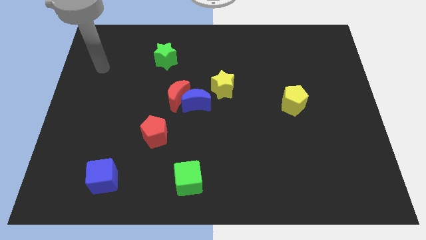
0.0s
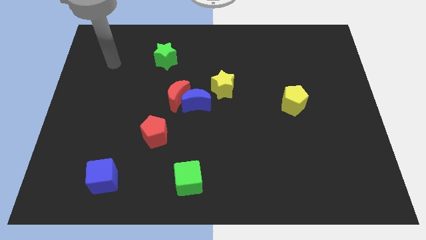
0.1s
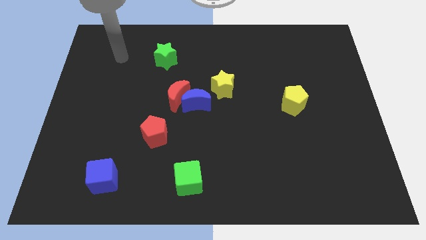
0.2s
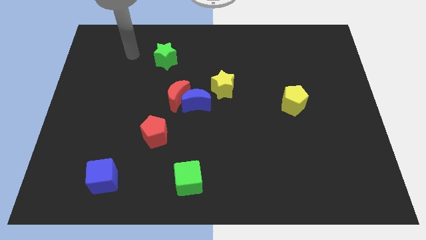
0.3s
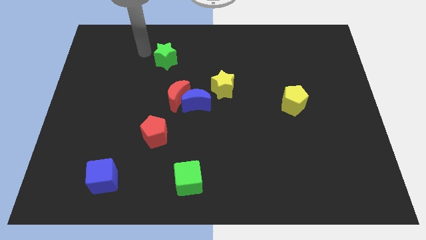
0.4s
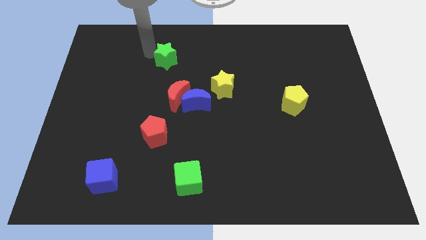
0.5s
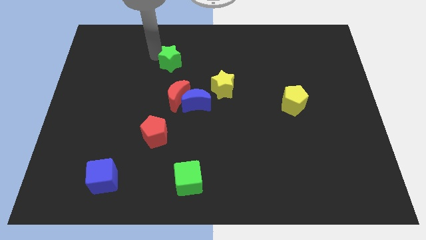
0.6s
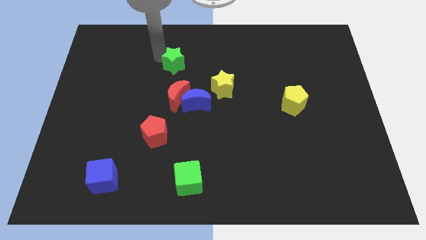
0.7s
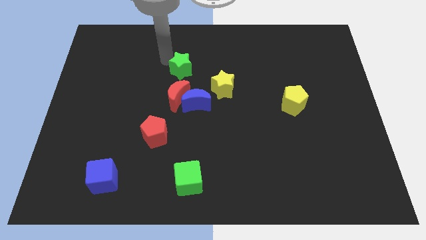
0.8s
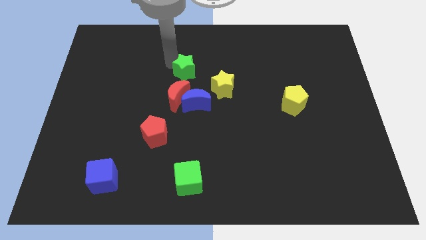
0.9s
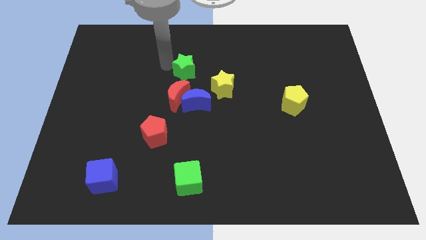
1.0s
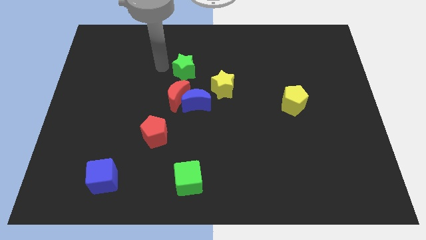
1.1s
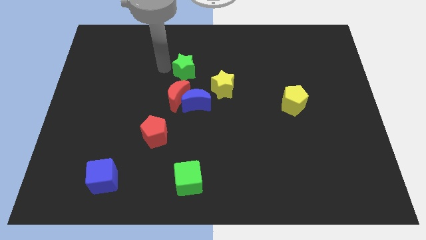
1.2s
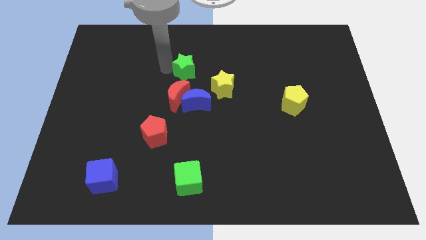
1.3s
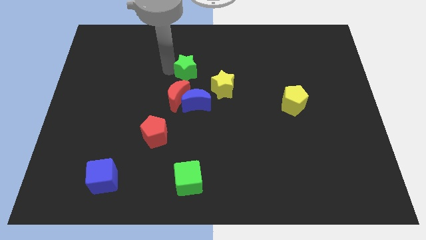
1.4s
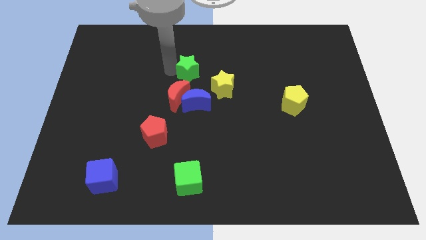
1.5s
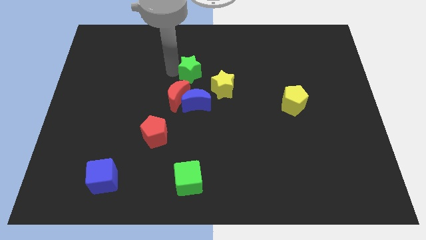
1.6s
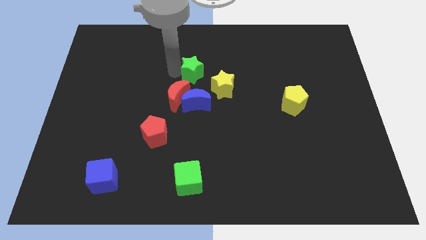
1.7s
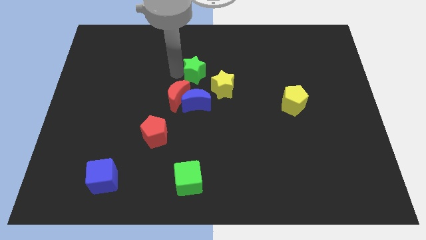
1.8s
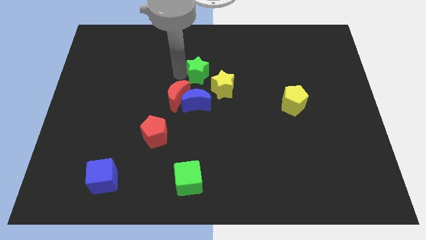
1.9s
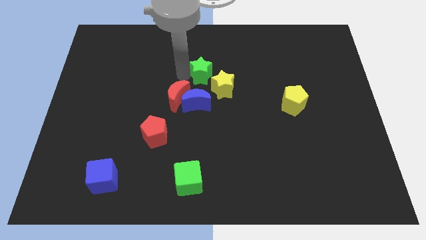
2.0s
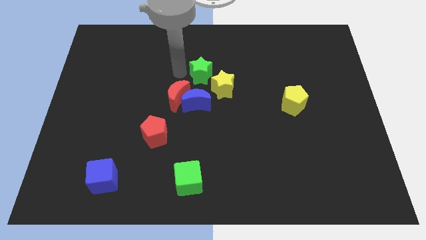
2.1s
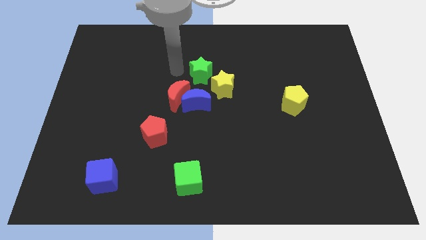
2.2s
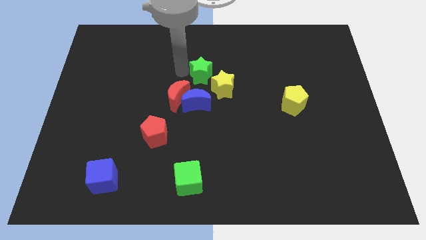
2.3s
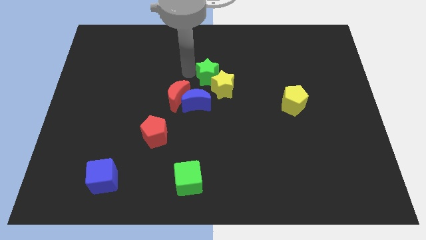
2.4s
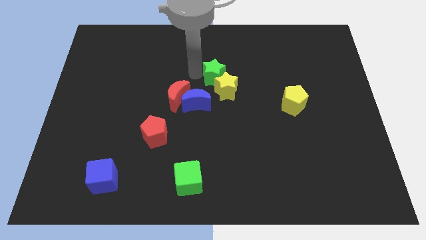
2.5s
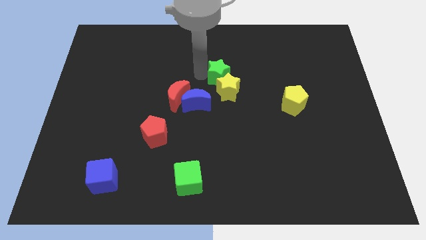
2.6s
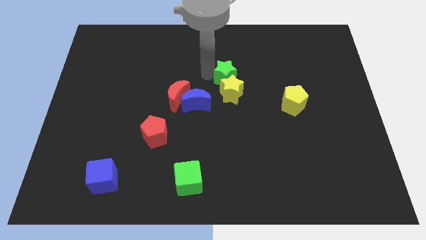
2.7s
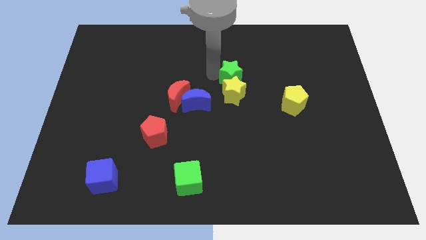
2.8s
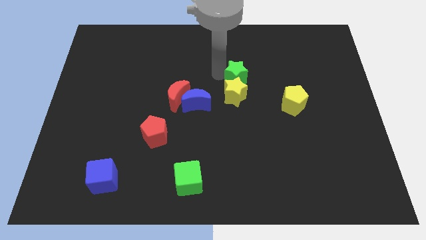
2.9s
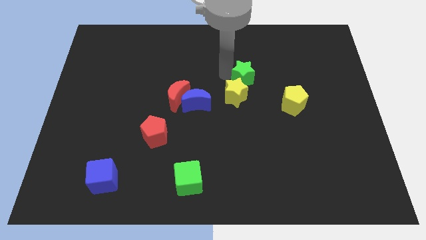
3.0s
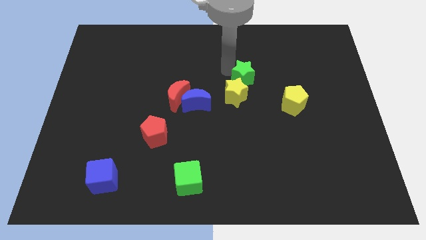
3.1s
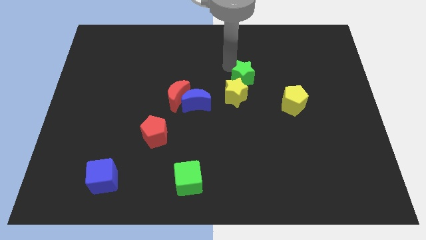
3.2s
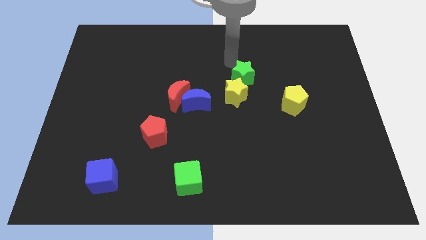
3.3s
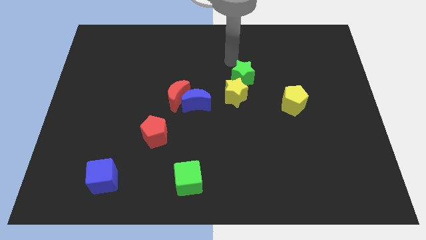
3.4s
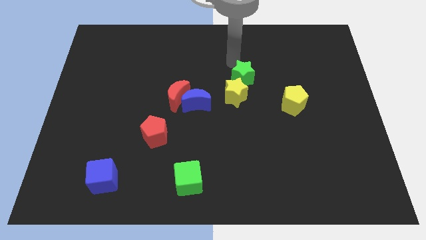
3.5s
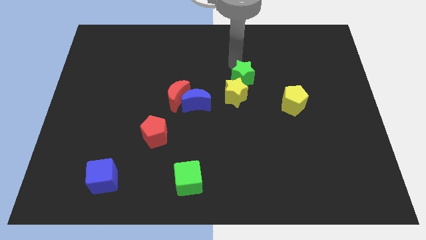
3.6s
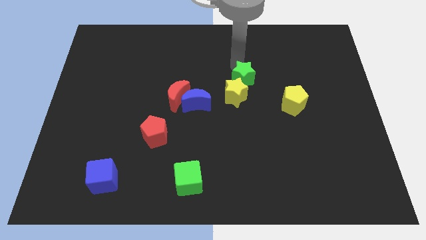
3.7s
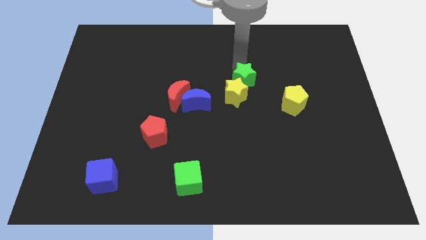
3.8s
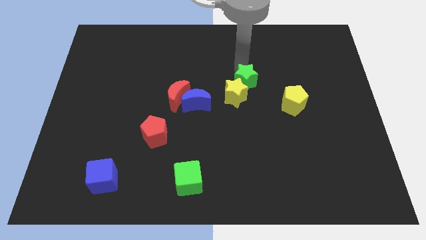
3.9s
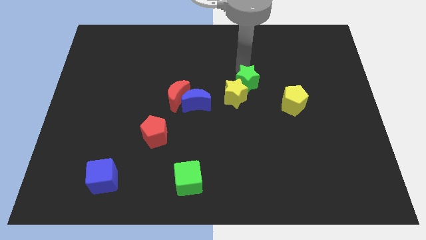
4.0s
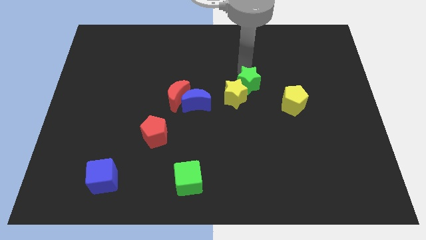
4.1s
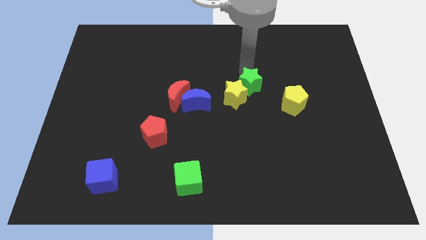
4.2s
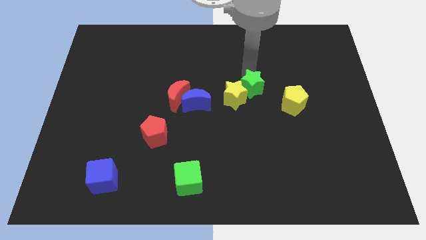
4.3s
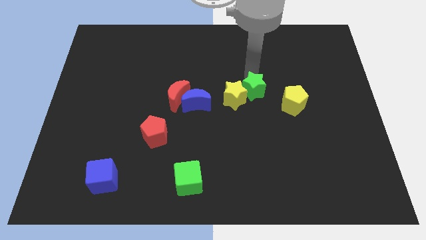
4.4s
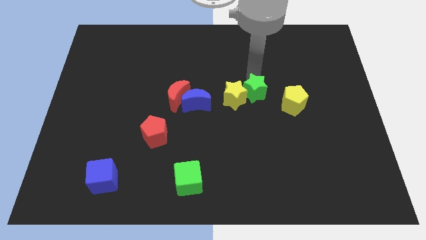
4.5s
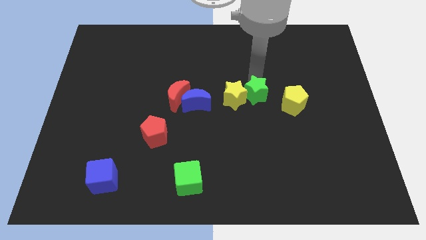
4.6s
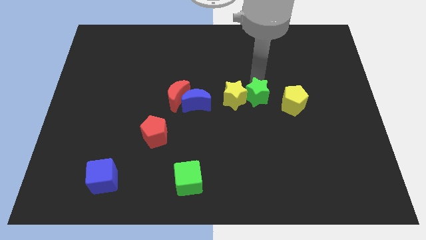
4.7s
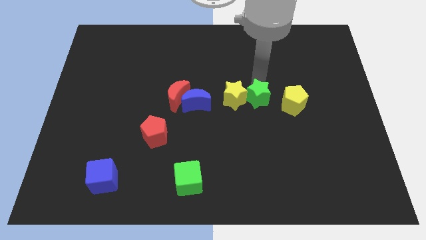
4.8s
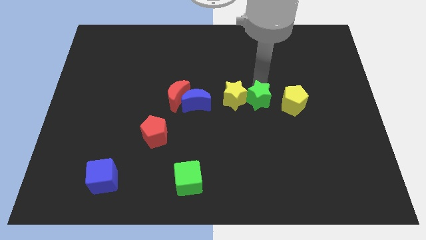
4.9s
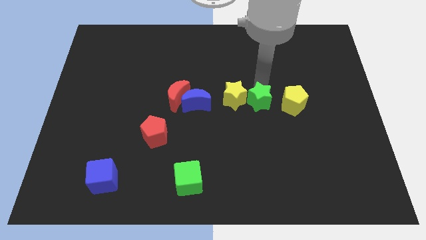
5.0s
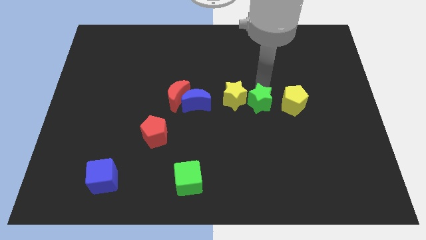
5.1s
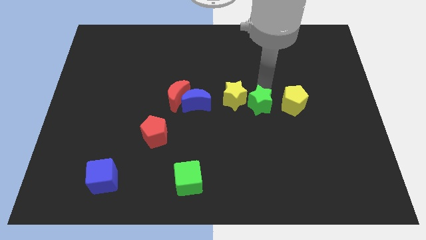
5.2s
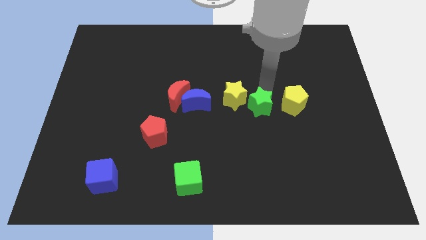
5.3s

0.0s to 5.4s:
slide the green star diagonally down and to the left of the yellow pentagon

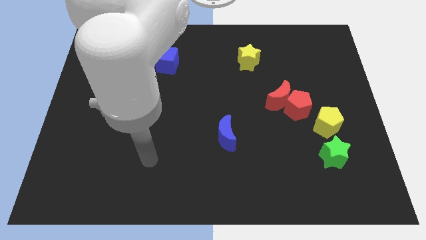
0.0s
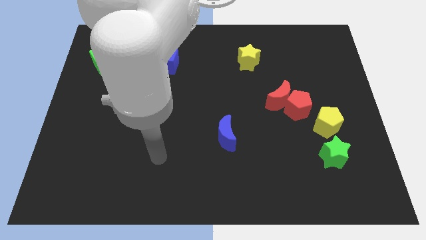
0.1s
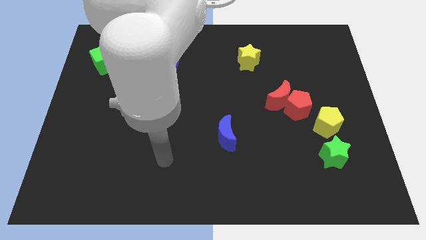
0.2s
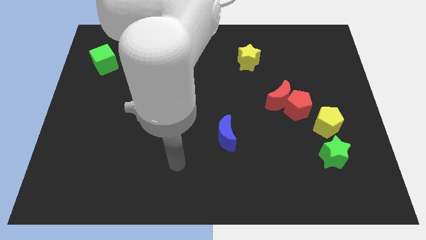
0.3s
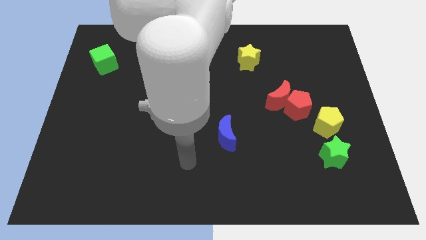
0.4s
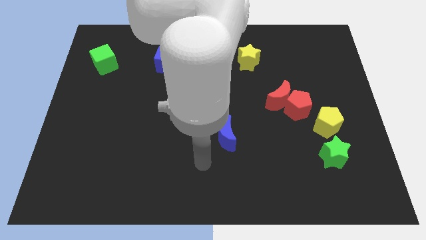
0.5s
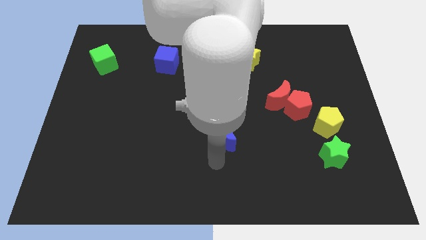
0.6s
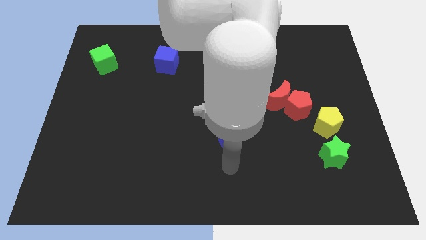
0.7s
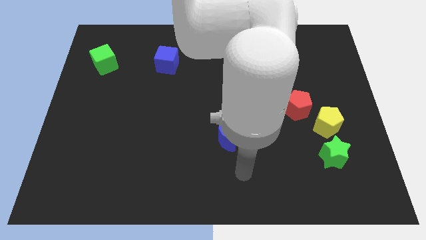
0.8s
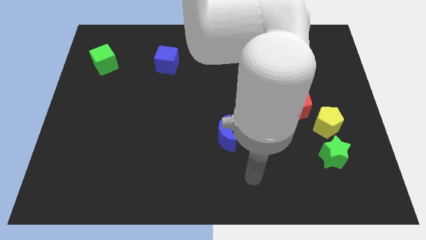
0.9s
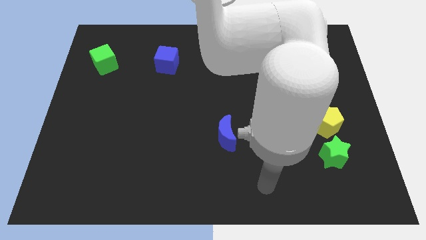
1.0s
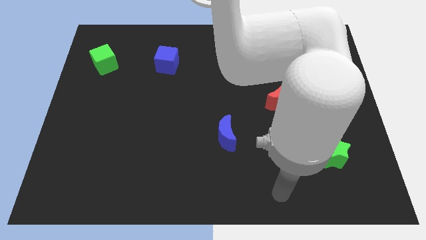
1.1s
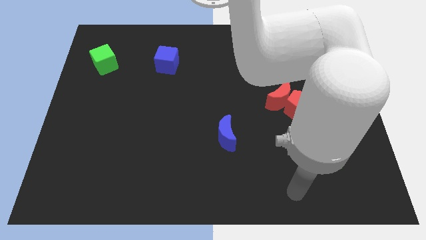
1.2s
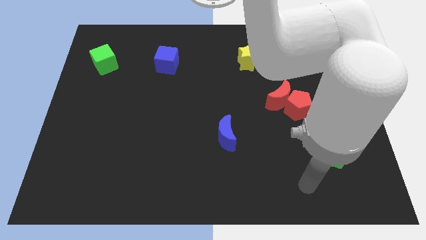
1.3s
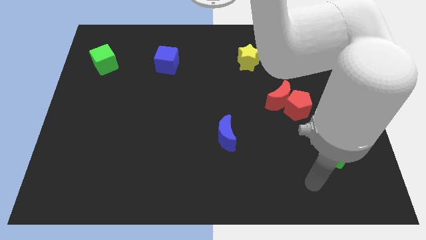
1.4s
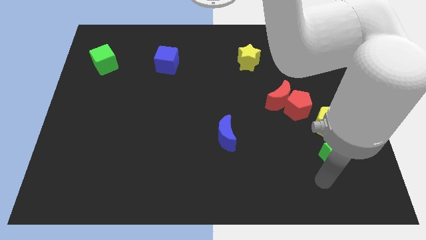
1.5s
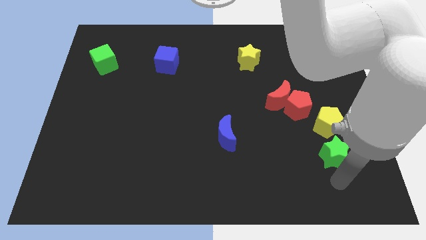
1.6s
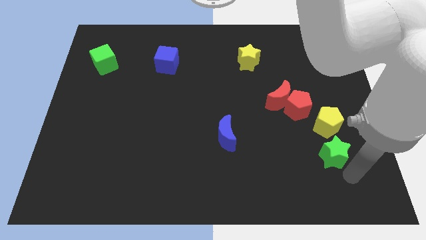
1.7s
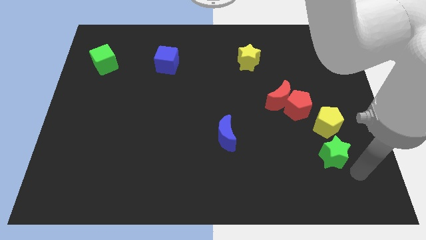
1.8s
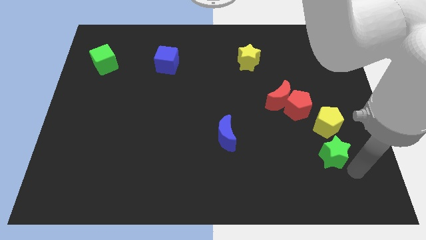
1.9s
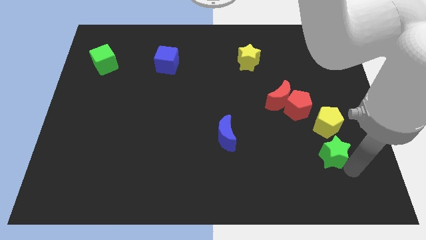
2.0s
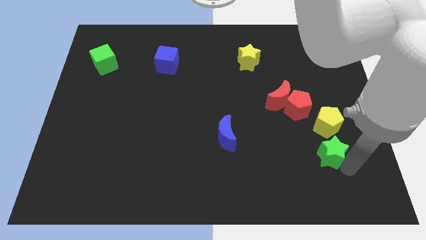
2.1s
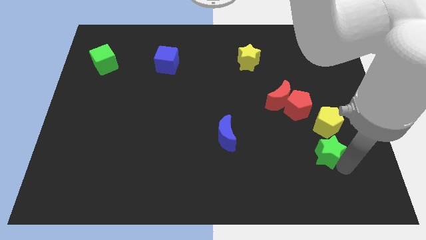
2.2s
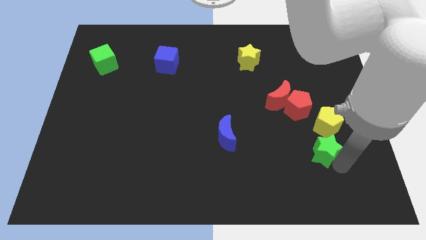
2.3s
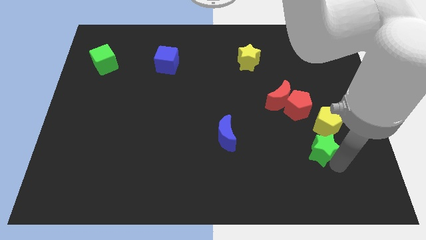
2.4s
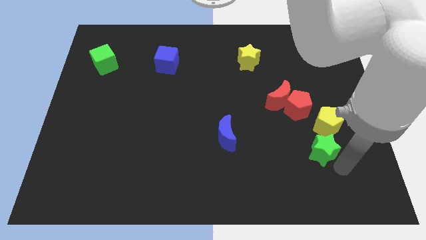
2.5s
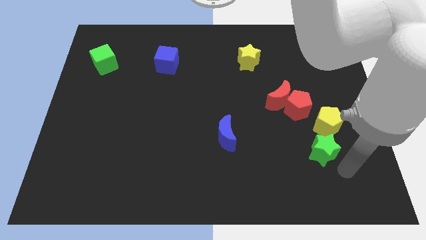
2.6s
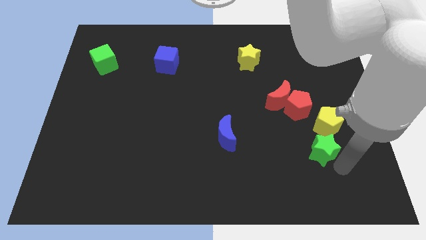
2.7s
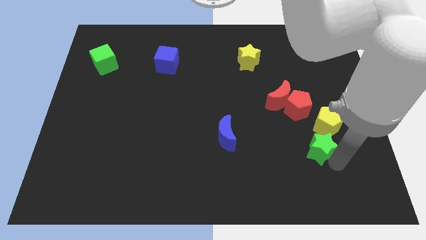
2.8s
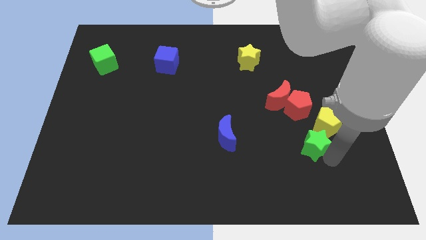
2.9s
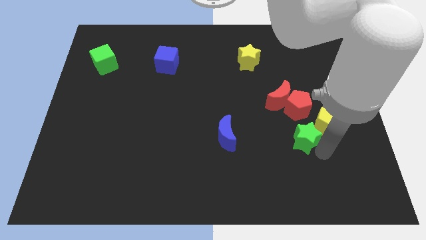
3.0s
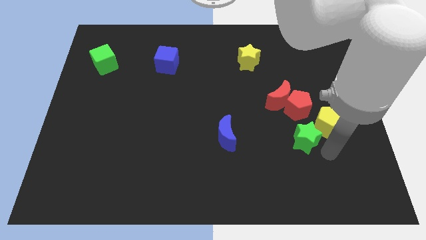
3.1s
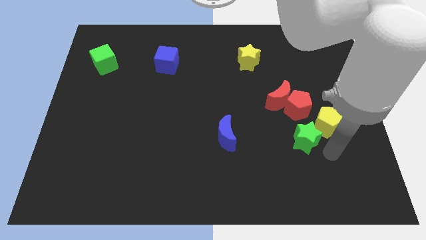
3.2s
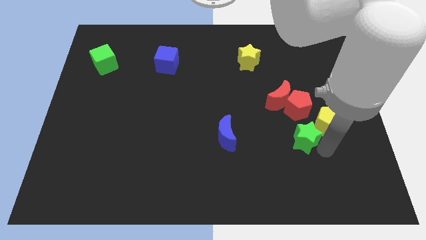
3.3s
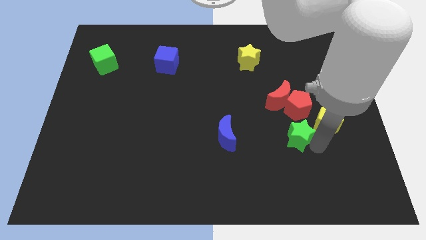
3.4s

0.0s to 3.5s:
push the green star diagonally down and to the left of the red pentagon
